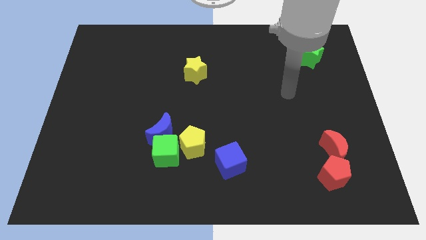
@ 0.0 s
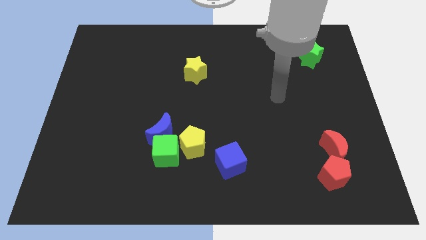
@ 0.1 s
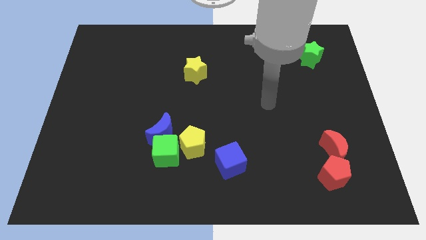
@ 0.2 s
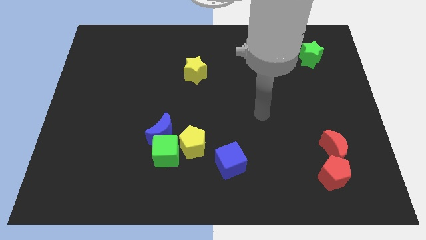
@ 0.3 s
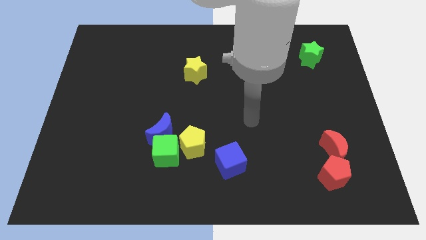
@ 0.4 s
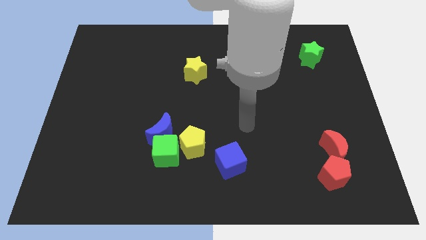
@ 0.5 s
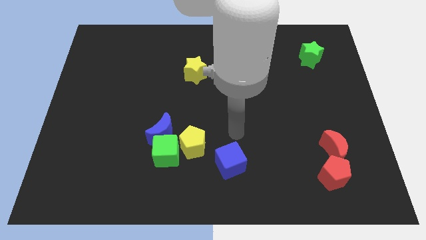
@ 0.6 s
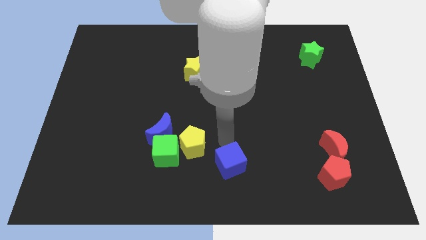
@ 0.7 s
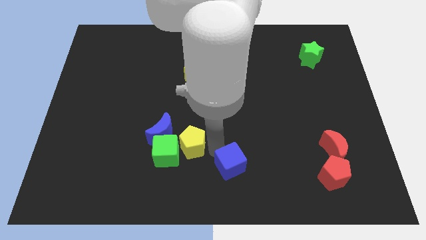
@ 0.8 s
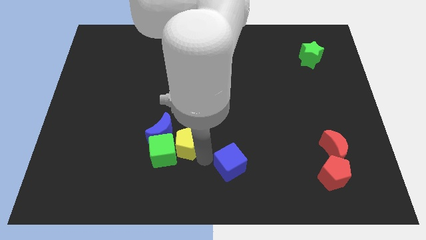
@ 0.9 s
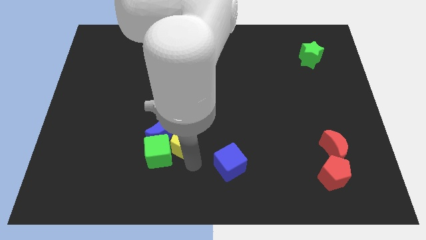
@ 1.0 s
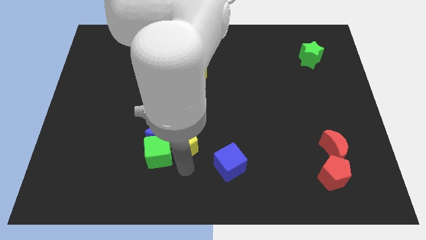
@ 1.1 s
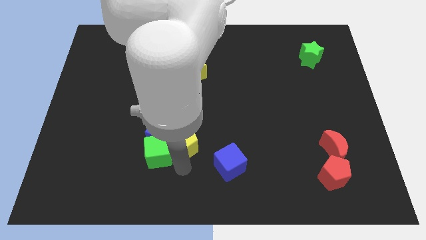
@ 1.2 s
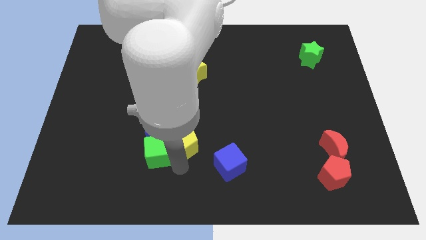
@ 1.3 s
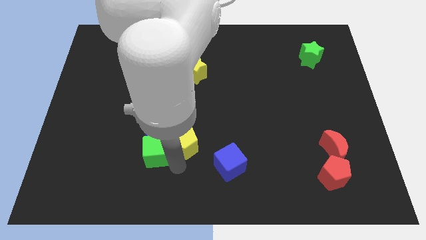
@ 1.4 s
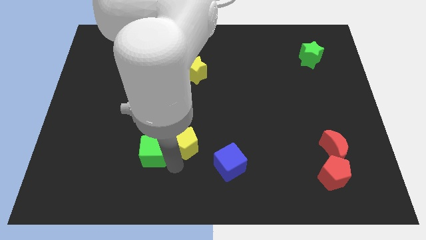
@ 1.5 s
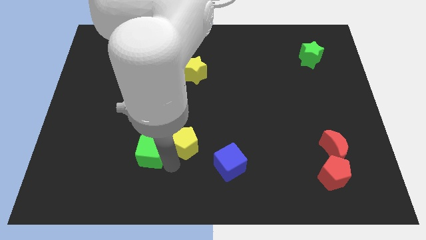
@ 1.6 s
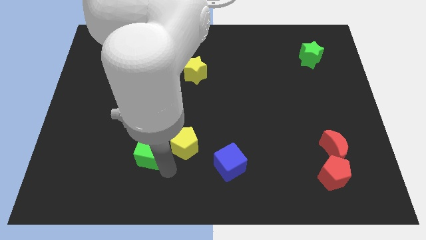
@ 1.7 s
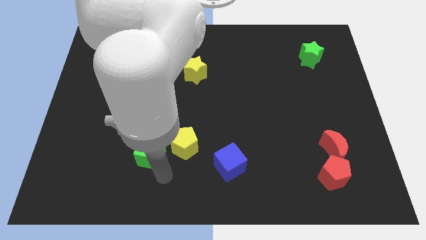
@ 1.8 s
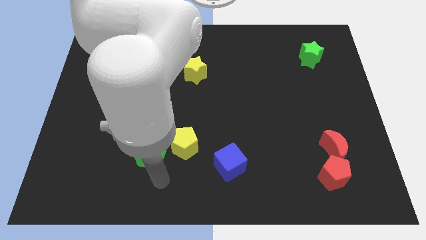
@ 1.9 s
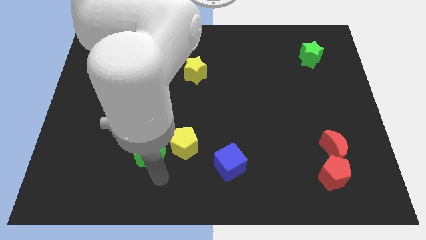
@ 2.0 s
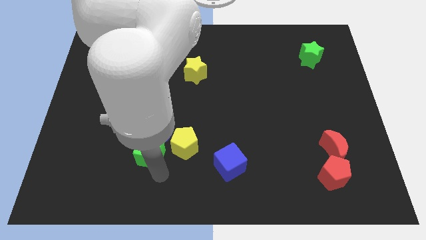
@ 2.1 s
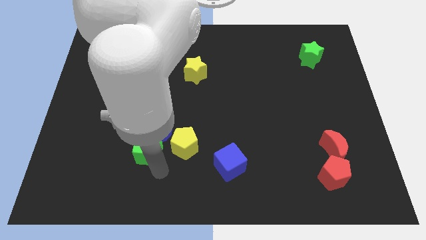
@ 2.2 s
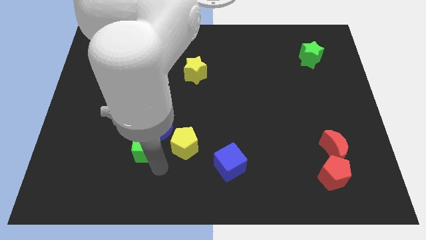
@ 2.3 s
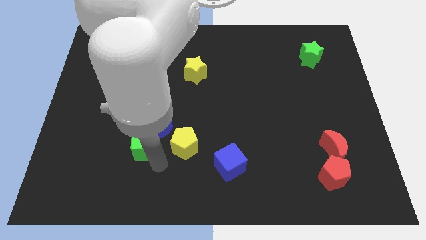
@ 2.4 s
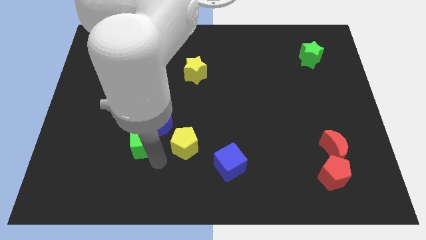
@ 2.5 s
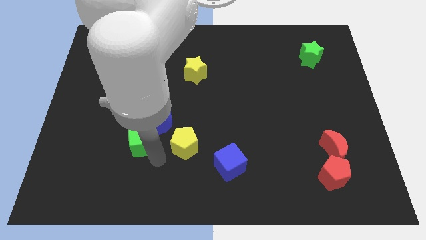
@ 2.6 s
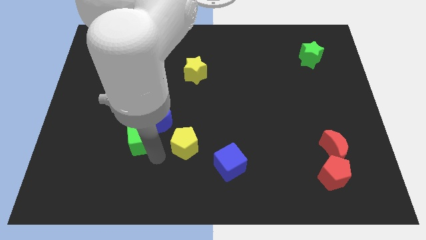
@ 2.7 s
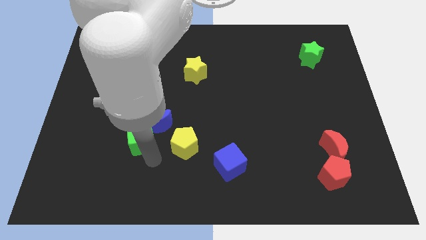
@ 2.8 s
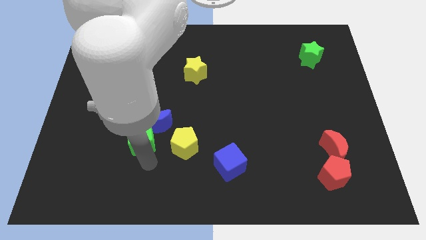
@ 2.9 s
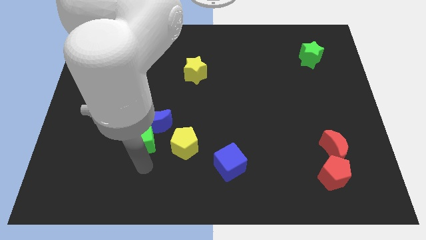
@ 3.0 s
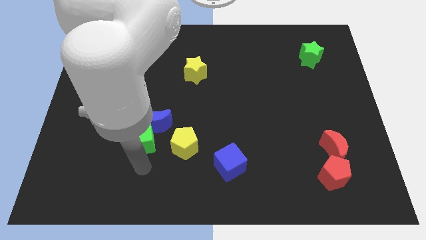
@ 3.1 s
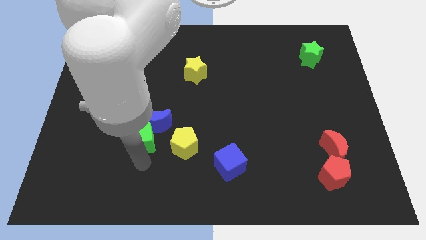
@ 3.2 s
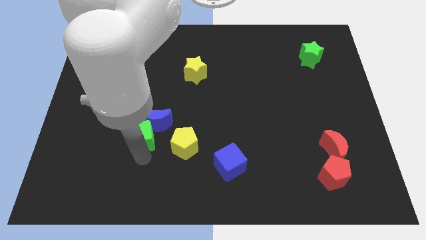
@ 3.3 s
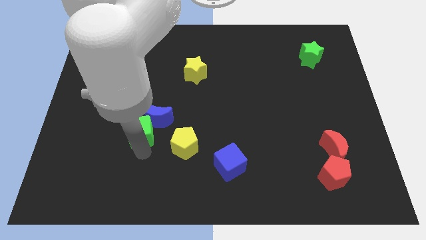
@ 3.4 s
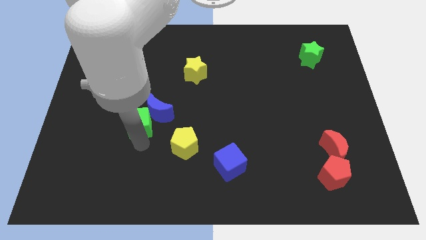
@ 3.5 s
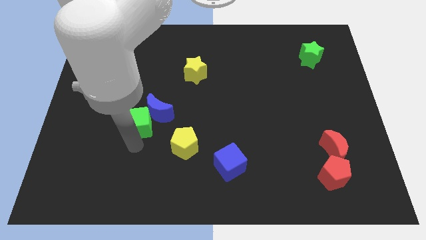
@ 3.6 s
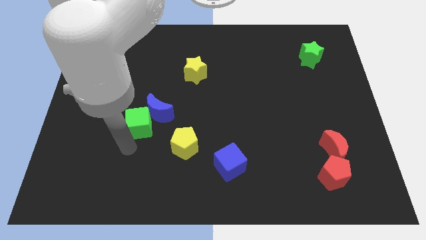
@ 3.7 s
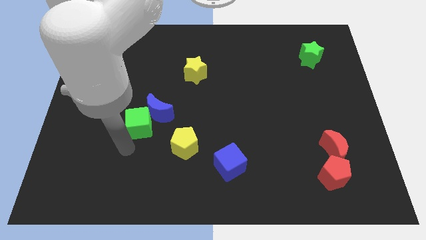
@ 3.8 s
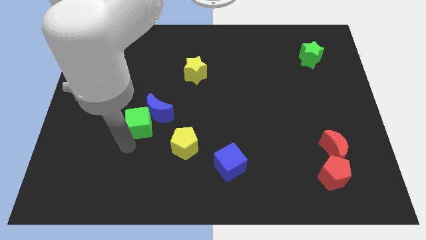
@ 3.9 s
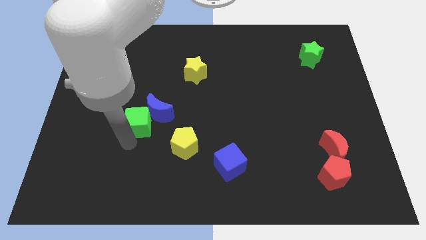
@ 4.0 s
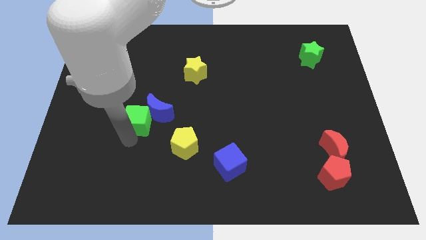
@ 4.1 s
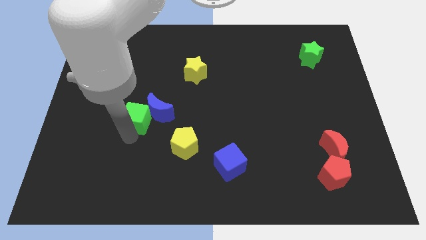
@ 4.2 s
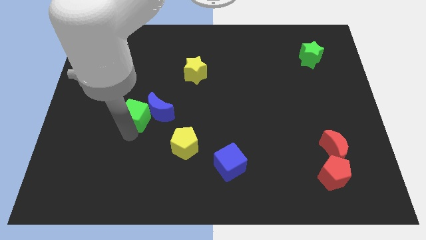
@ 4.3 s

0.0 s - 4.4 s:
slide the green cube up somewhat

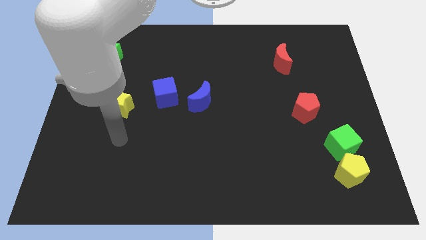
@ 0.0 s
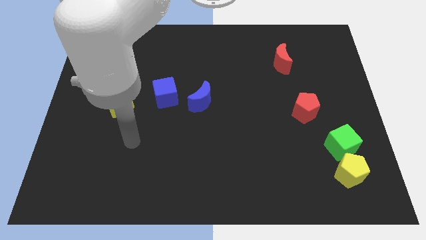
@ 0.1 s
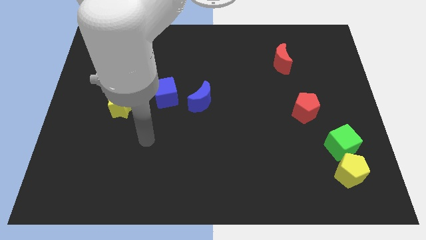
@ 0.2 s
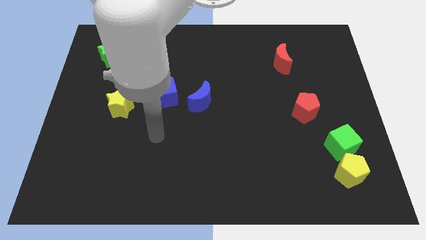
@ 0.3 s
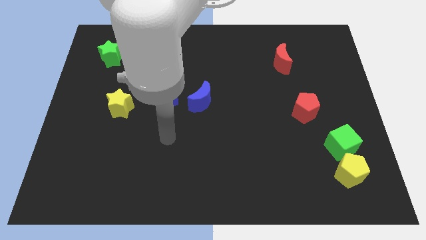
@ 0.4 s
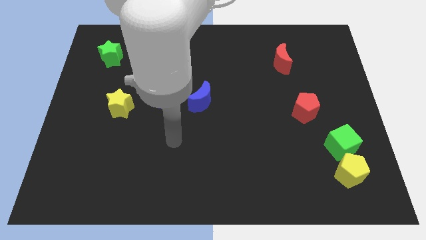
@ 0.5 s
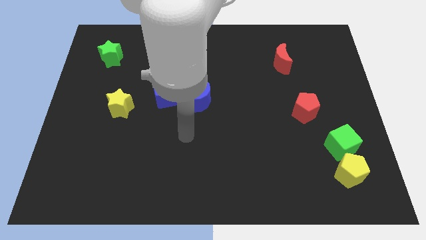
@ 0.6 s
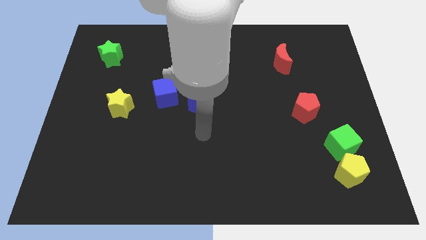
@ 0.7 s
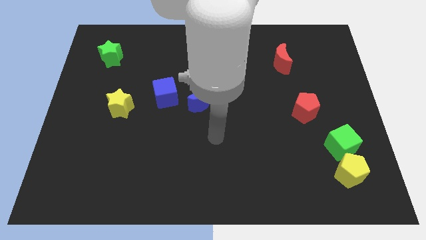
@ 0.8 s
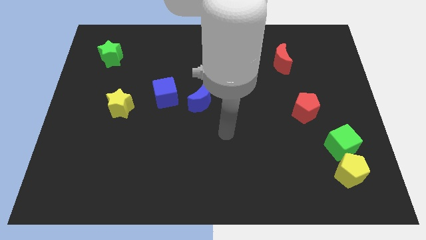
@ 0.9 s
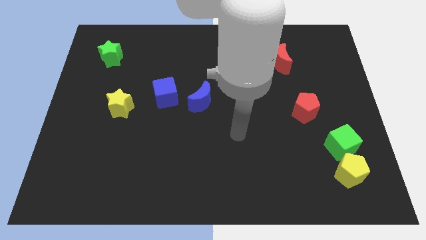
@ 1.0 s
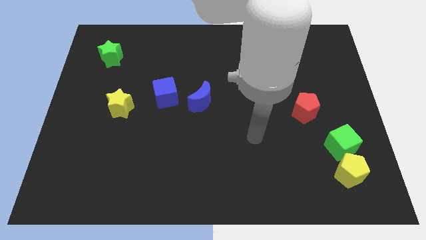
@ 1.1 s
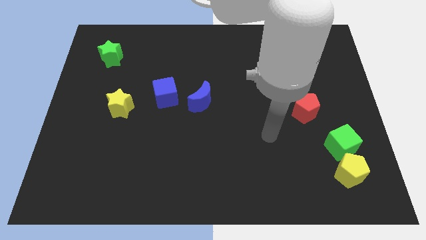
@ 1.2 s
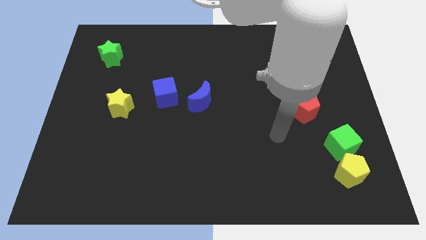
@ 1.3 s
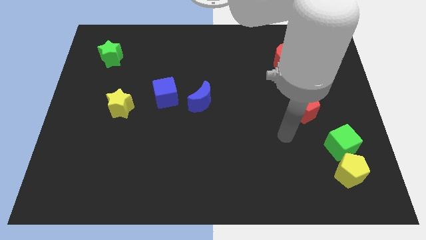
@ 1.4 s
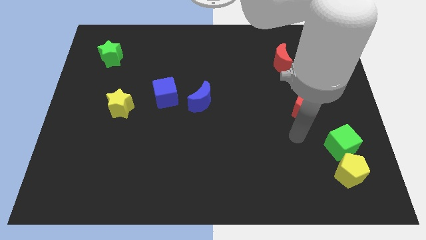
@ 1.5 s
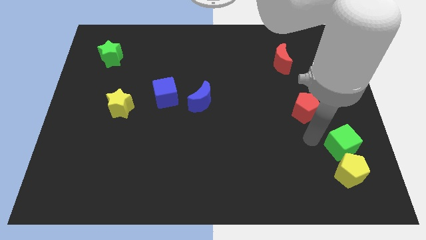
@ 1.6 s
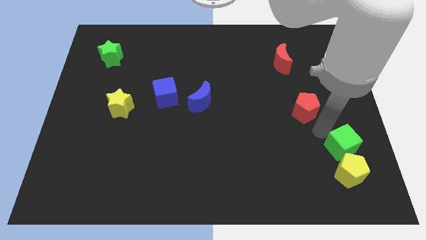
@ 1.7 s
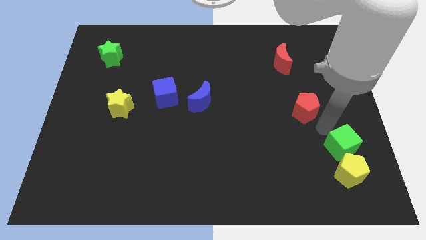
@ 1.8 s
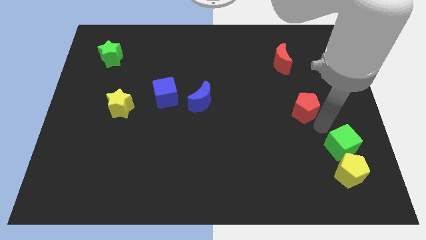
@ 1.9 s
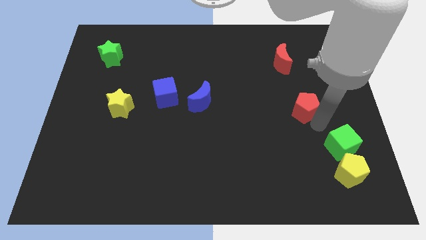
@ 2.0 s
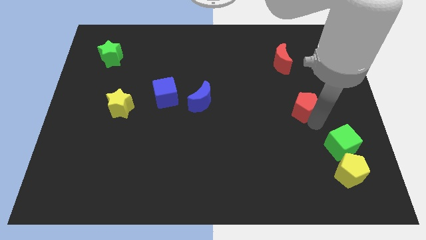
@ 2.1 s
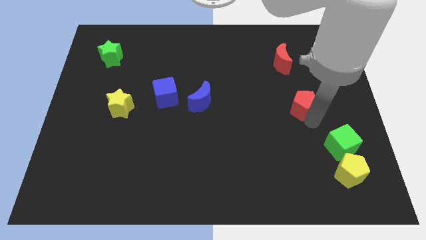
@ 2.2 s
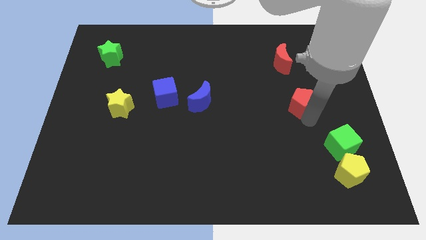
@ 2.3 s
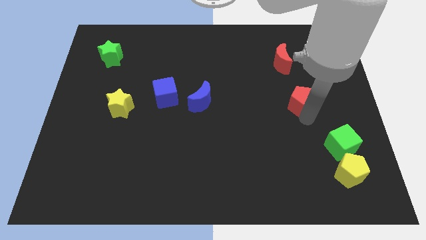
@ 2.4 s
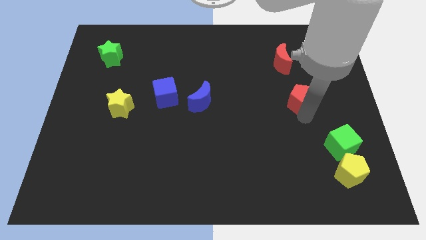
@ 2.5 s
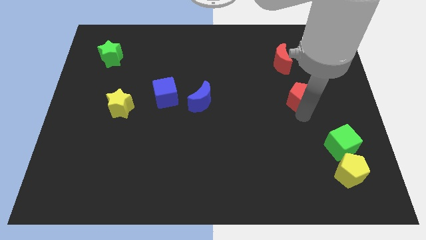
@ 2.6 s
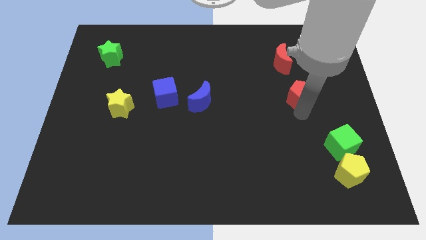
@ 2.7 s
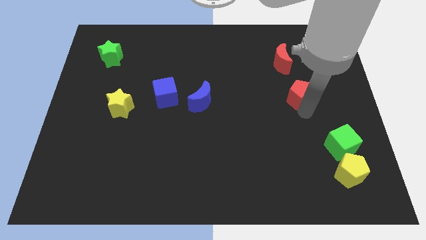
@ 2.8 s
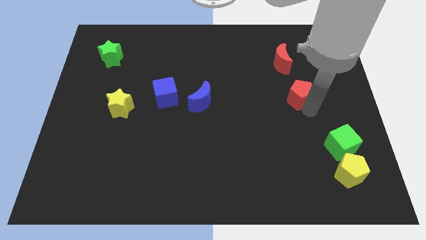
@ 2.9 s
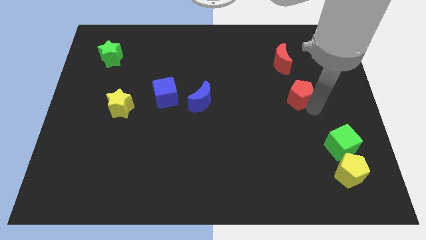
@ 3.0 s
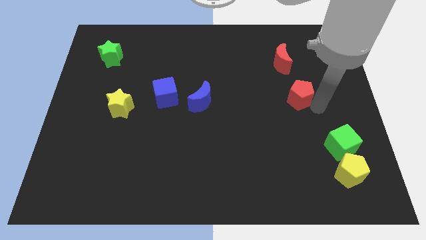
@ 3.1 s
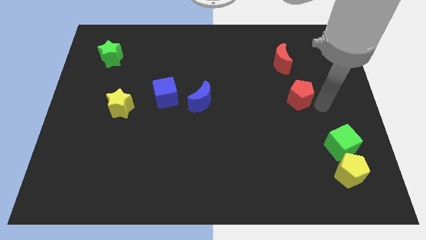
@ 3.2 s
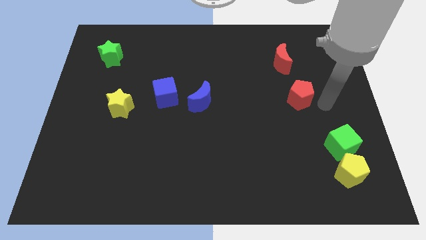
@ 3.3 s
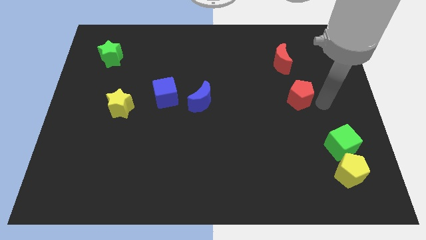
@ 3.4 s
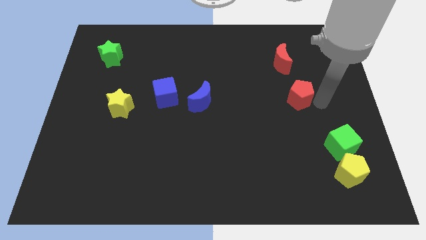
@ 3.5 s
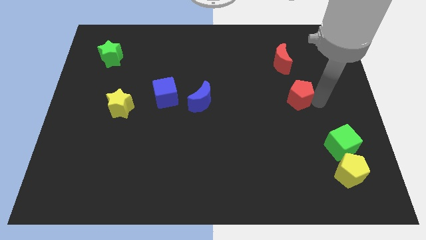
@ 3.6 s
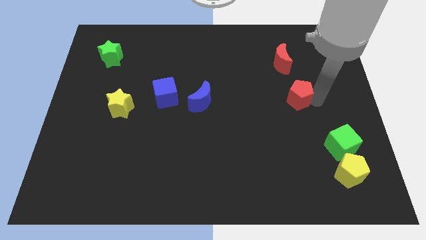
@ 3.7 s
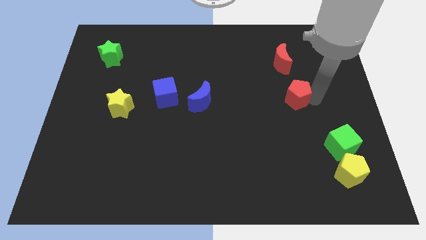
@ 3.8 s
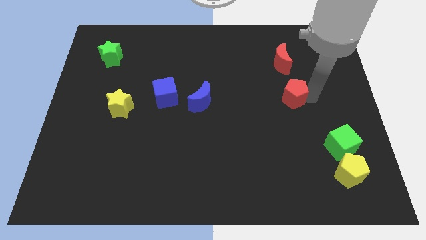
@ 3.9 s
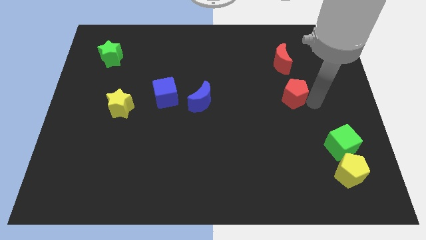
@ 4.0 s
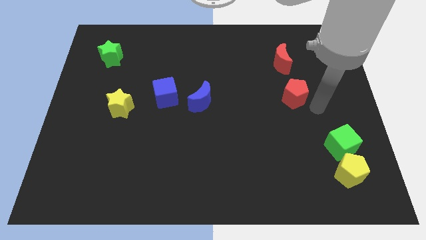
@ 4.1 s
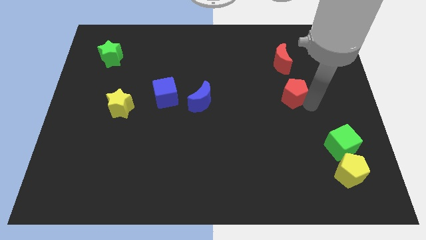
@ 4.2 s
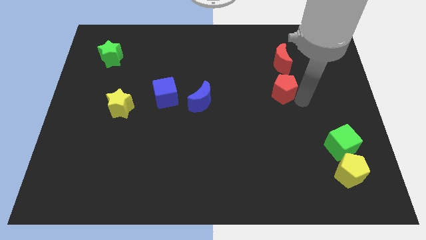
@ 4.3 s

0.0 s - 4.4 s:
move the red pentagon a little up and to the left diagonally
